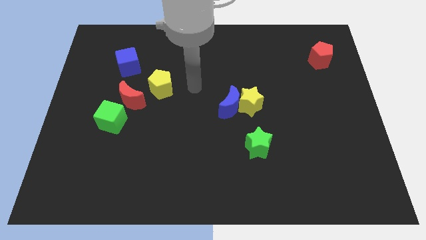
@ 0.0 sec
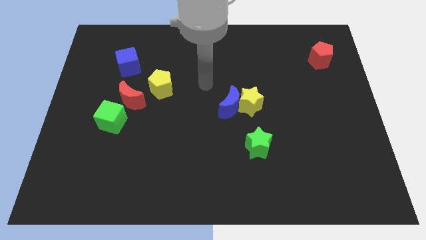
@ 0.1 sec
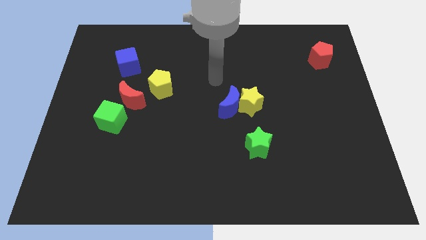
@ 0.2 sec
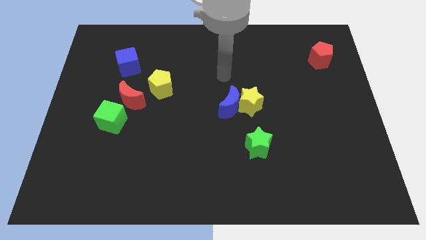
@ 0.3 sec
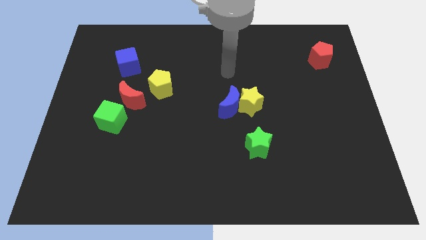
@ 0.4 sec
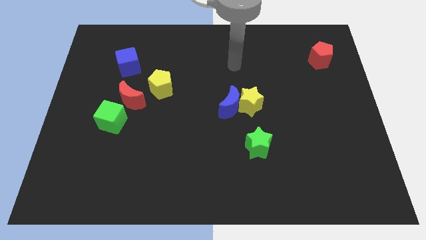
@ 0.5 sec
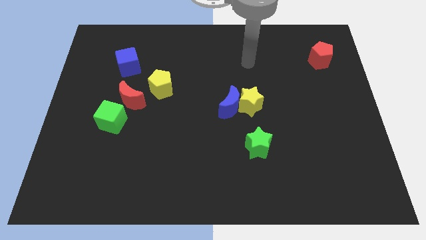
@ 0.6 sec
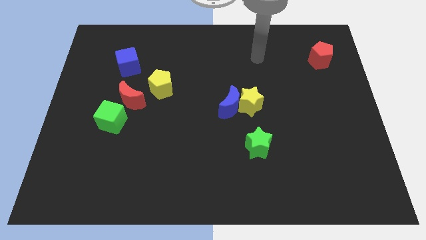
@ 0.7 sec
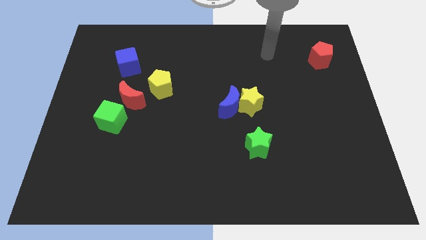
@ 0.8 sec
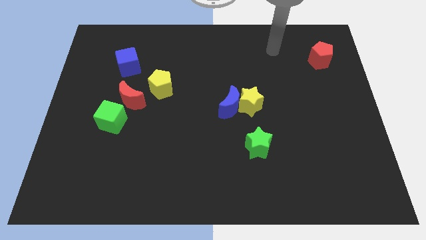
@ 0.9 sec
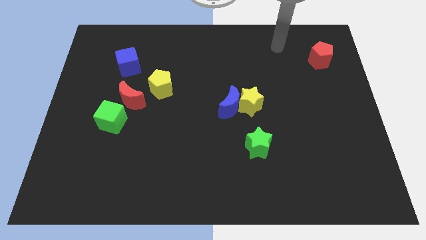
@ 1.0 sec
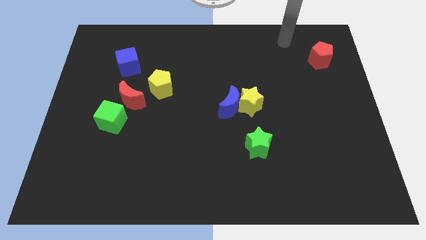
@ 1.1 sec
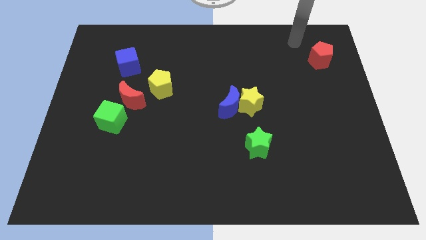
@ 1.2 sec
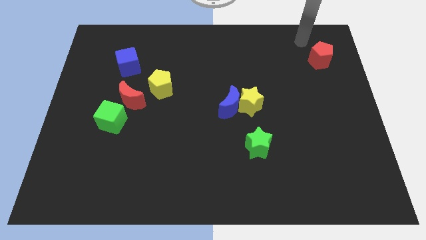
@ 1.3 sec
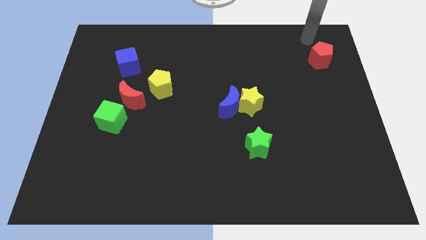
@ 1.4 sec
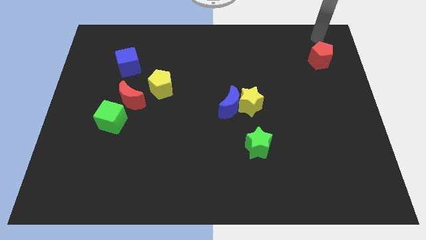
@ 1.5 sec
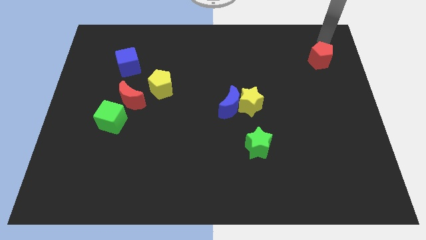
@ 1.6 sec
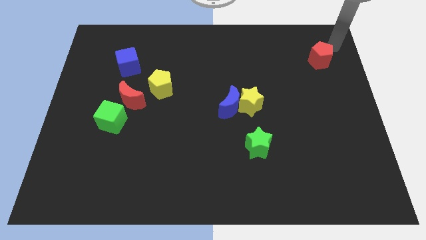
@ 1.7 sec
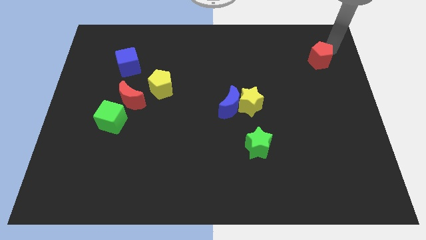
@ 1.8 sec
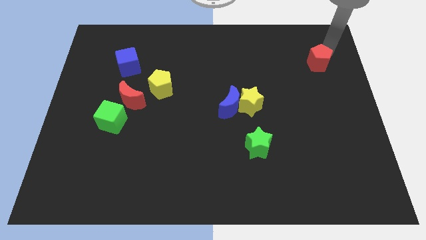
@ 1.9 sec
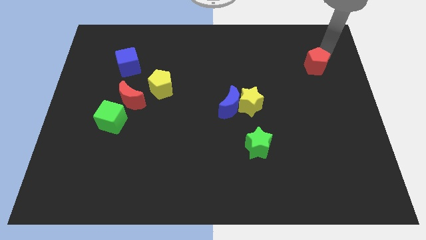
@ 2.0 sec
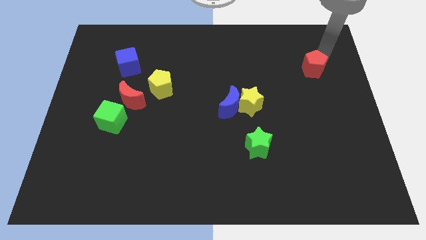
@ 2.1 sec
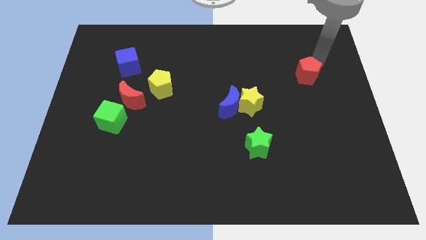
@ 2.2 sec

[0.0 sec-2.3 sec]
push the red pentagon slightly diagonally downwards and to the left

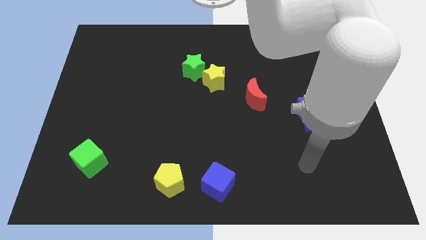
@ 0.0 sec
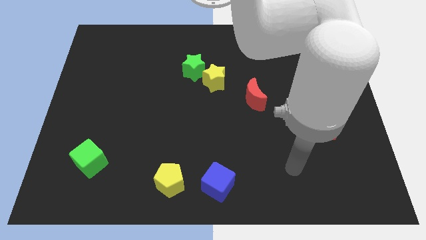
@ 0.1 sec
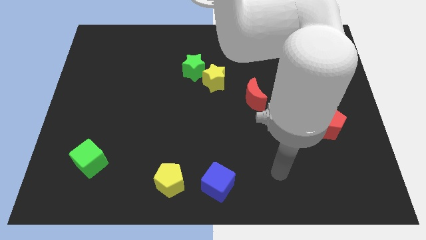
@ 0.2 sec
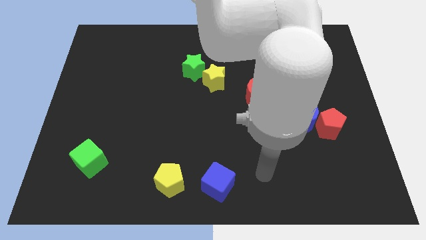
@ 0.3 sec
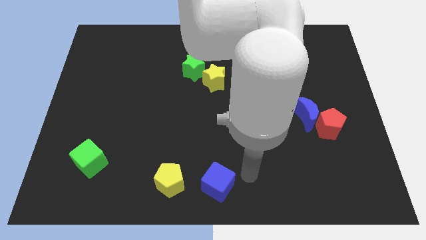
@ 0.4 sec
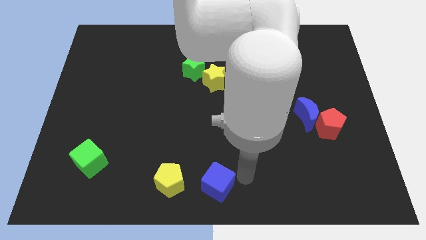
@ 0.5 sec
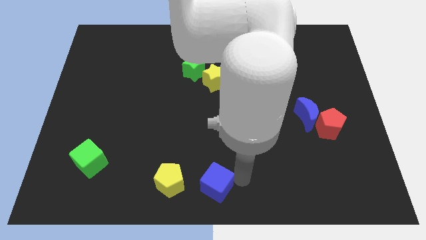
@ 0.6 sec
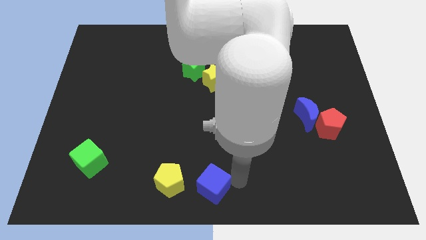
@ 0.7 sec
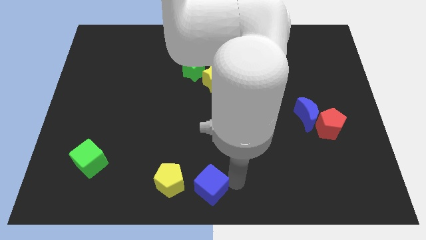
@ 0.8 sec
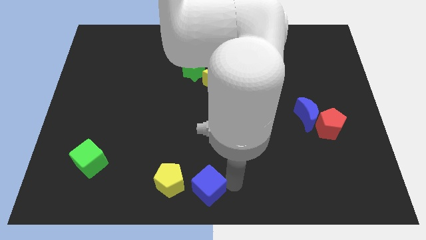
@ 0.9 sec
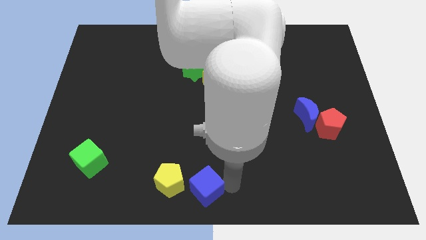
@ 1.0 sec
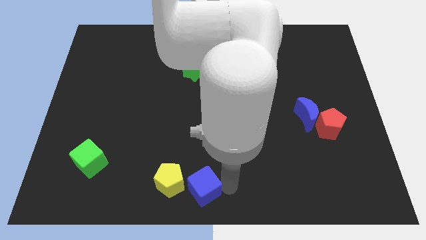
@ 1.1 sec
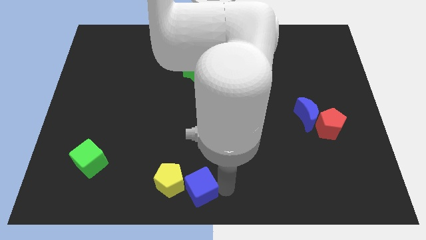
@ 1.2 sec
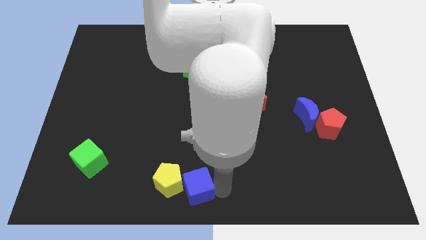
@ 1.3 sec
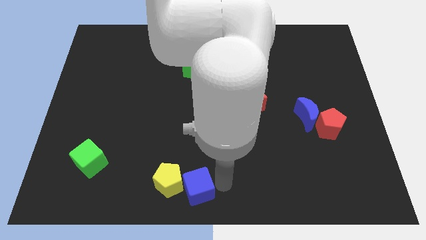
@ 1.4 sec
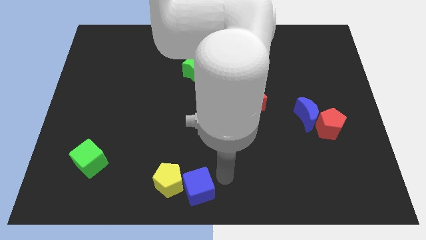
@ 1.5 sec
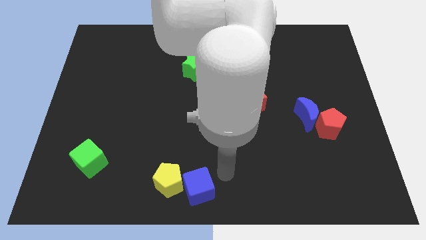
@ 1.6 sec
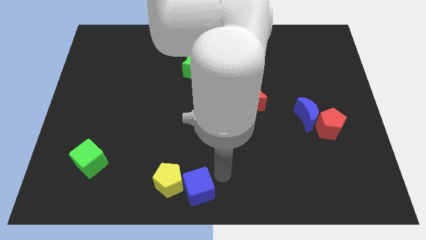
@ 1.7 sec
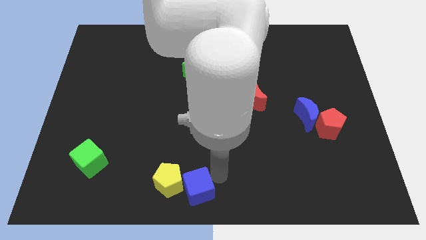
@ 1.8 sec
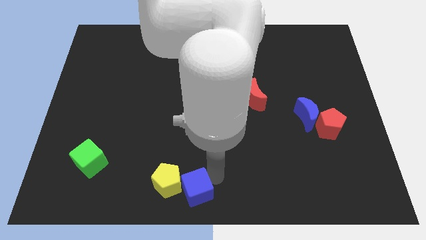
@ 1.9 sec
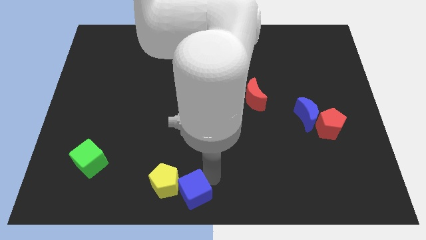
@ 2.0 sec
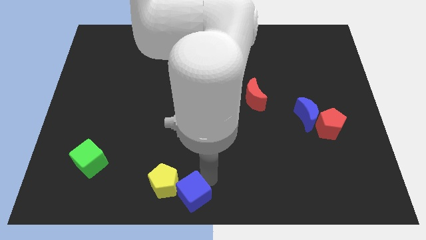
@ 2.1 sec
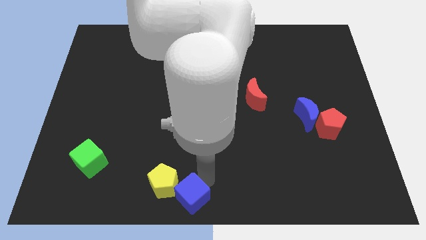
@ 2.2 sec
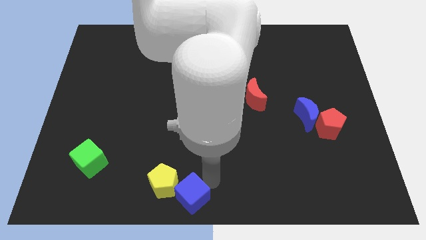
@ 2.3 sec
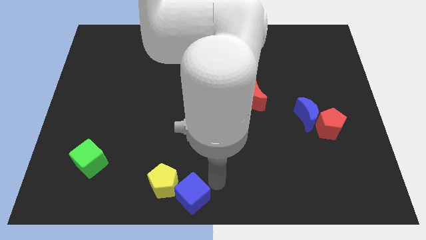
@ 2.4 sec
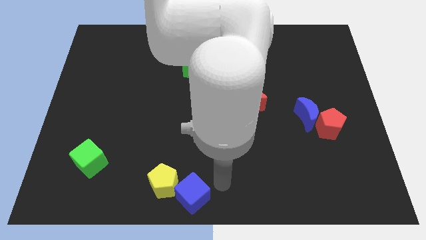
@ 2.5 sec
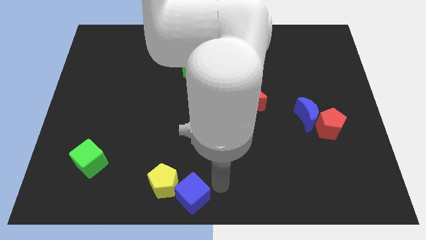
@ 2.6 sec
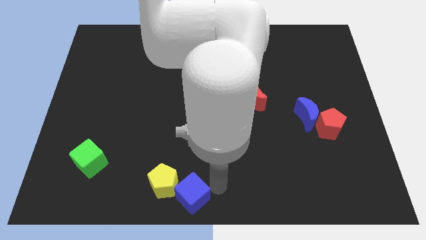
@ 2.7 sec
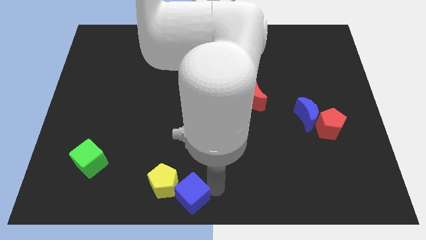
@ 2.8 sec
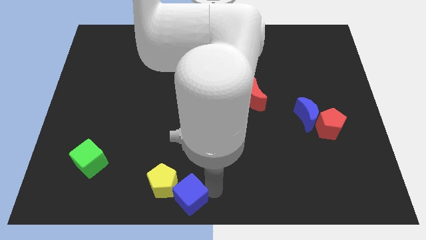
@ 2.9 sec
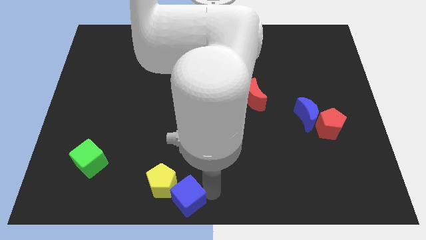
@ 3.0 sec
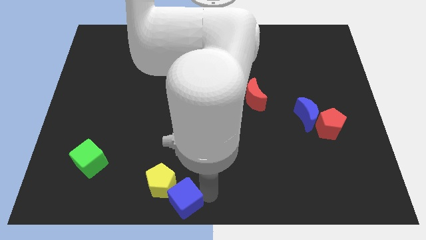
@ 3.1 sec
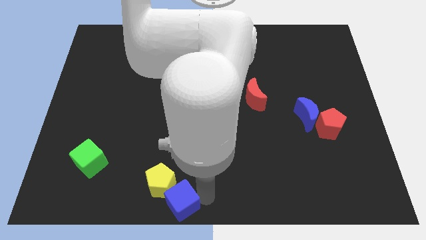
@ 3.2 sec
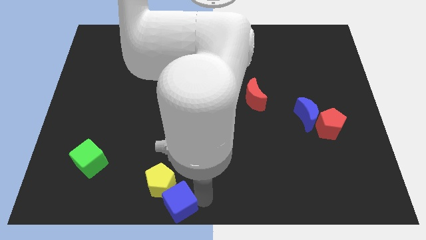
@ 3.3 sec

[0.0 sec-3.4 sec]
slightly push the blue cube left

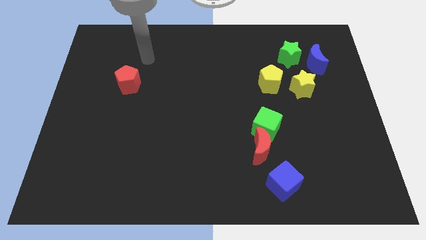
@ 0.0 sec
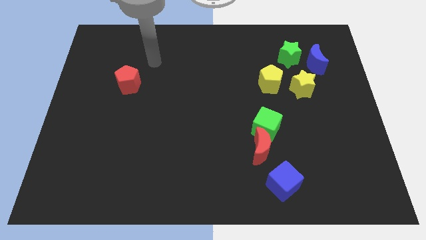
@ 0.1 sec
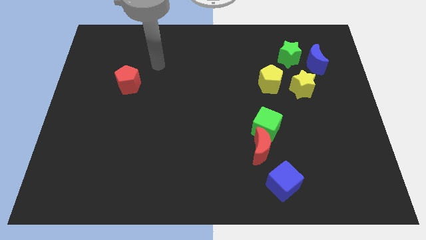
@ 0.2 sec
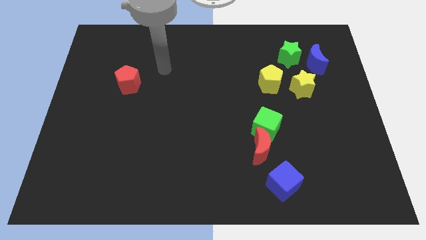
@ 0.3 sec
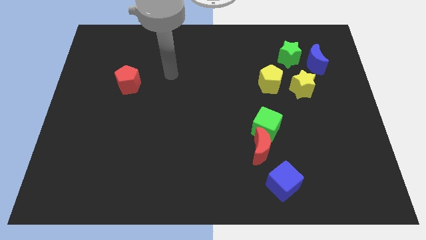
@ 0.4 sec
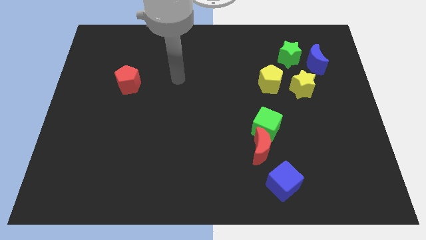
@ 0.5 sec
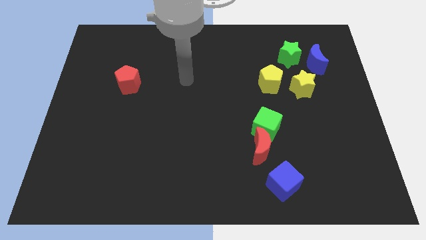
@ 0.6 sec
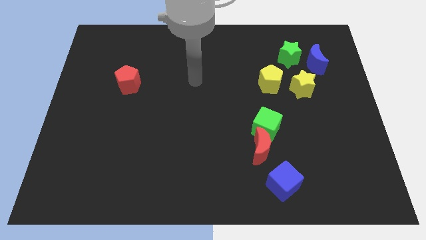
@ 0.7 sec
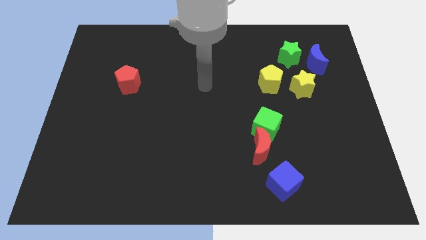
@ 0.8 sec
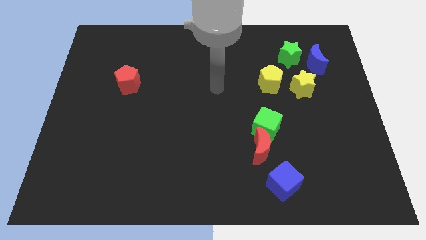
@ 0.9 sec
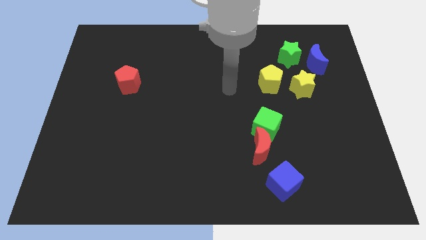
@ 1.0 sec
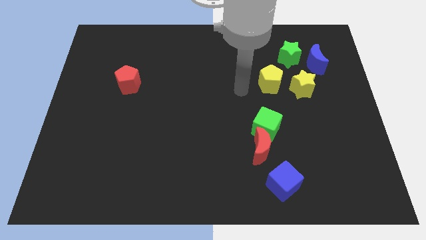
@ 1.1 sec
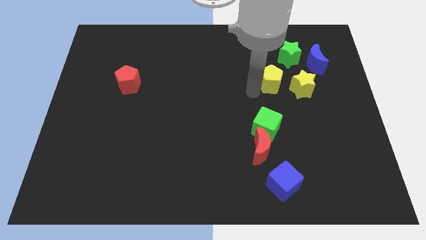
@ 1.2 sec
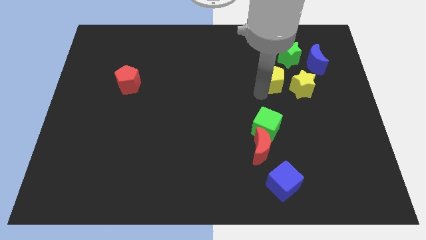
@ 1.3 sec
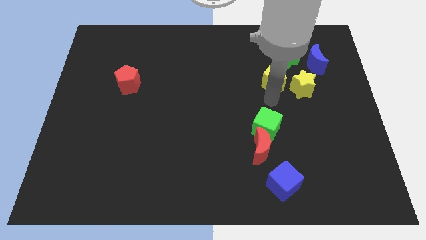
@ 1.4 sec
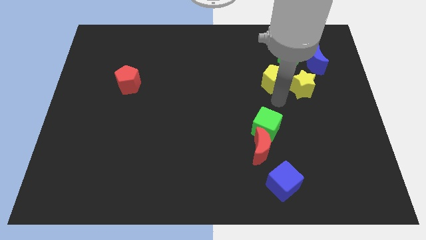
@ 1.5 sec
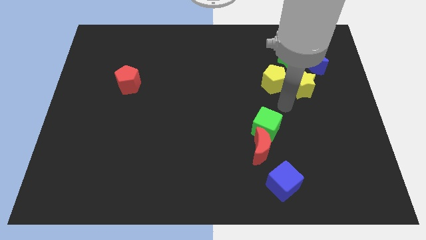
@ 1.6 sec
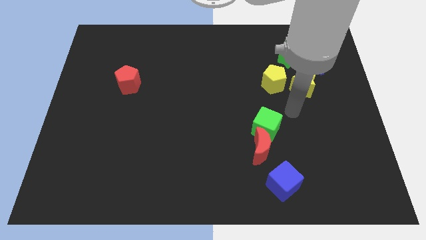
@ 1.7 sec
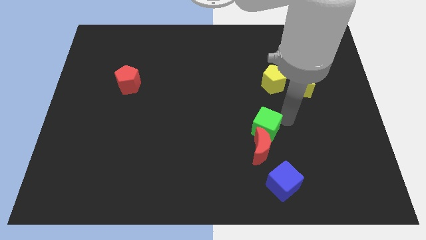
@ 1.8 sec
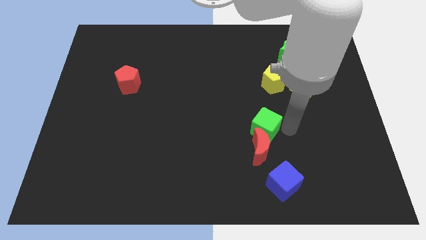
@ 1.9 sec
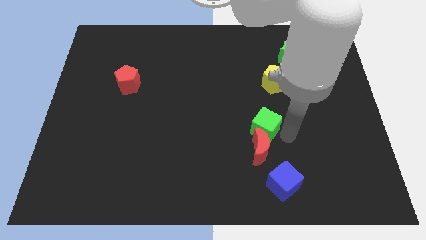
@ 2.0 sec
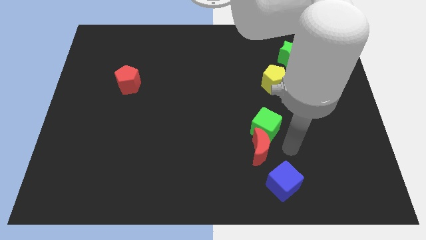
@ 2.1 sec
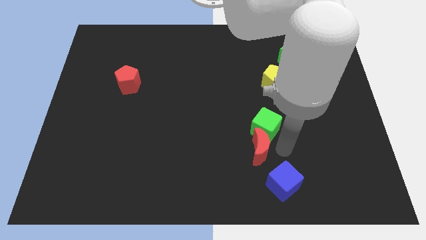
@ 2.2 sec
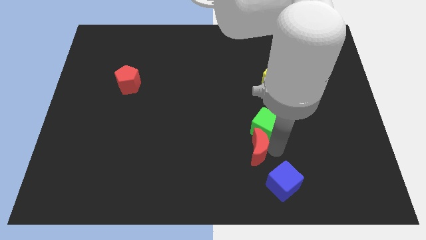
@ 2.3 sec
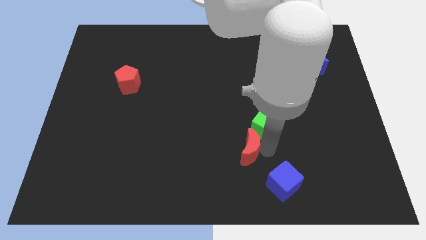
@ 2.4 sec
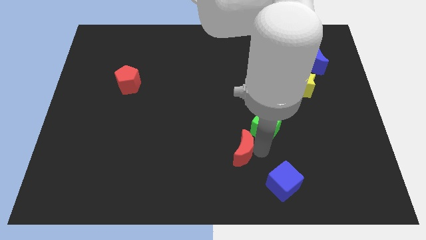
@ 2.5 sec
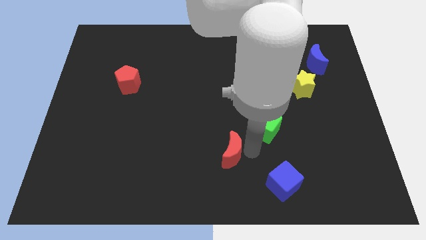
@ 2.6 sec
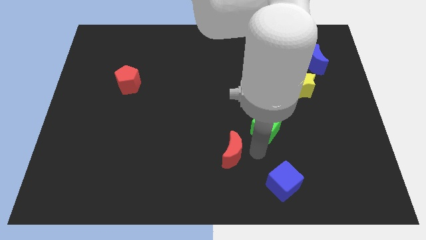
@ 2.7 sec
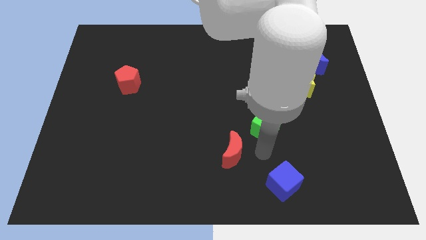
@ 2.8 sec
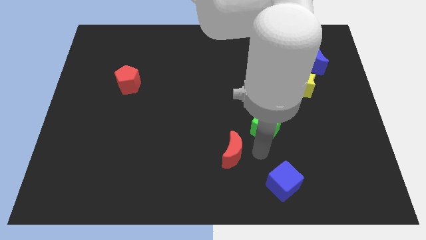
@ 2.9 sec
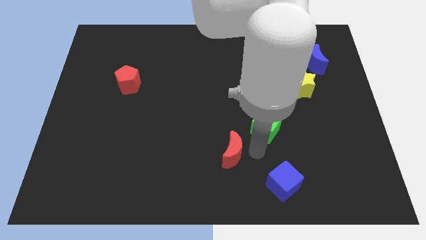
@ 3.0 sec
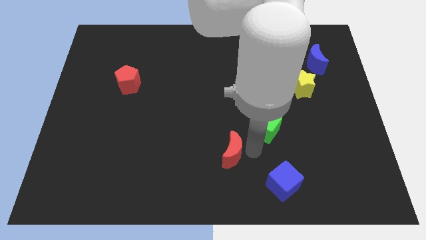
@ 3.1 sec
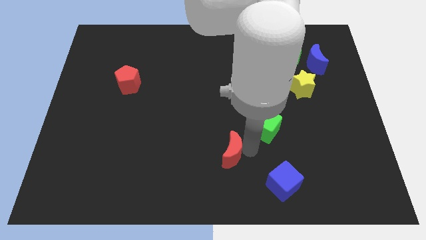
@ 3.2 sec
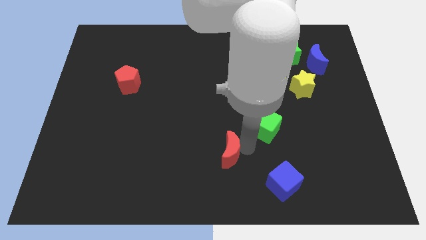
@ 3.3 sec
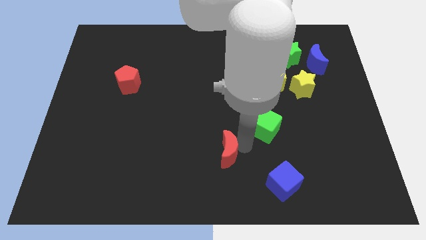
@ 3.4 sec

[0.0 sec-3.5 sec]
move the red moon to the left a little
